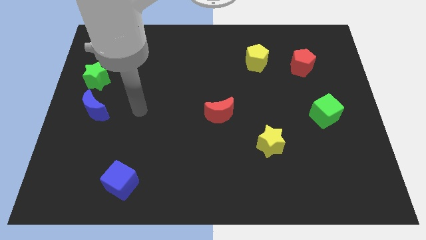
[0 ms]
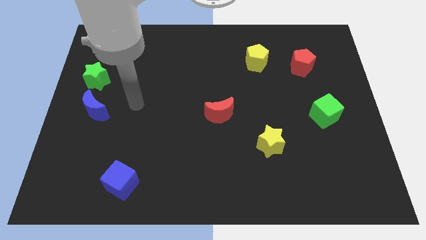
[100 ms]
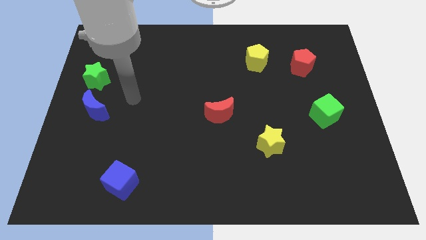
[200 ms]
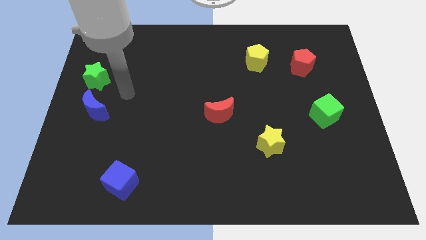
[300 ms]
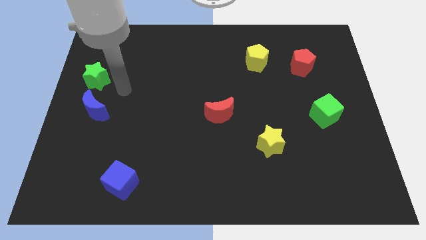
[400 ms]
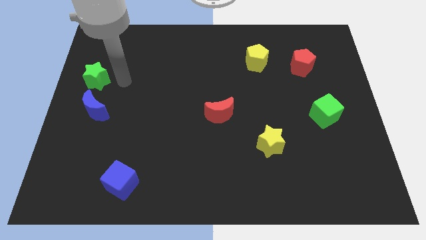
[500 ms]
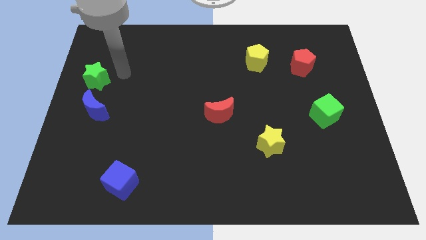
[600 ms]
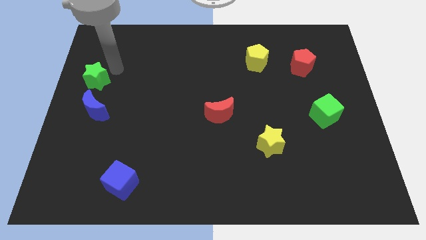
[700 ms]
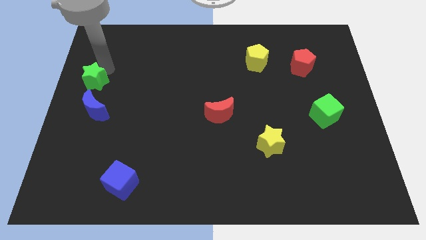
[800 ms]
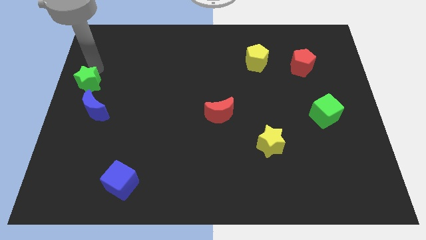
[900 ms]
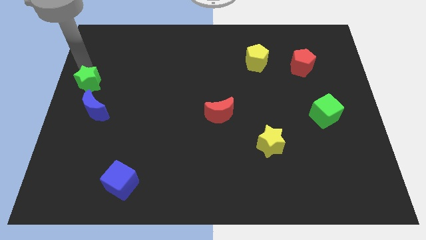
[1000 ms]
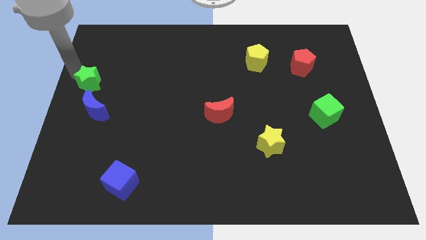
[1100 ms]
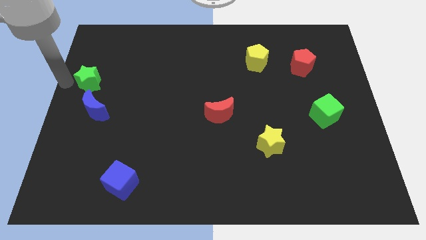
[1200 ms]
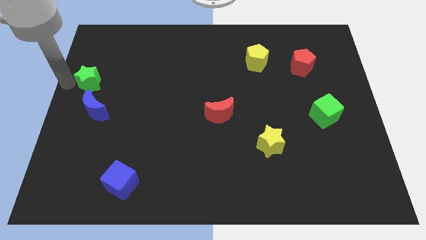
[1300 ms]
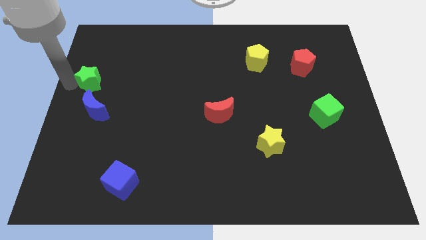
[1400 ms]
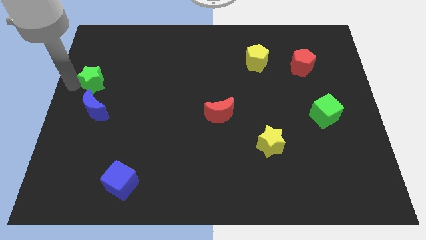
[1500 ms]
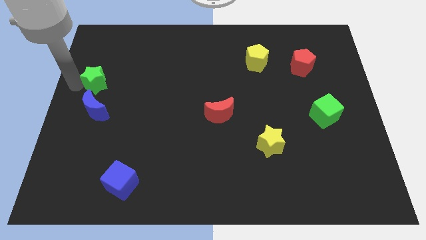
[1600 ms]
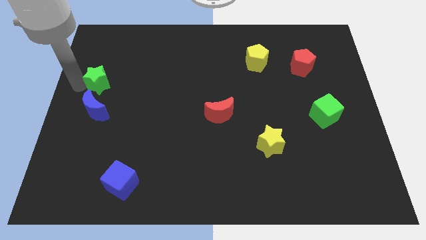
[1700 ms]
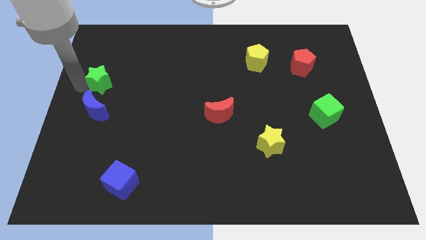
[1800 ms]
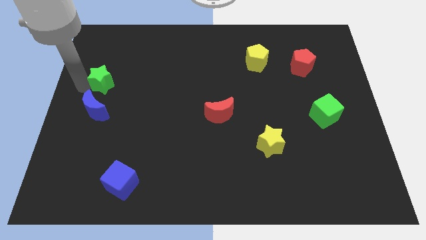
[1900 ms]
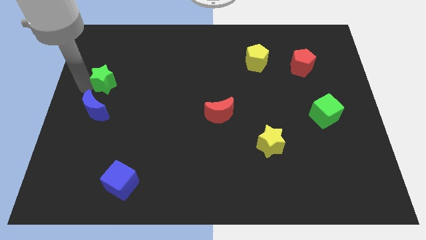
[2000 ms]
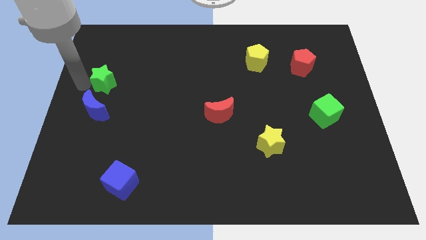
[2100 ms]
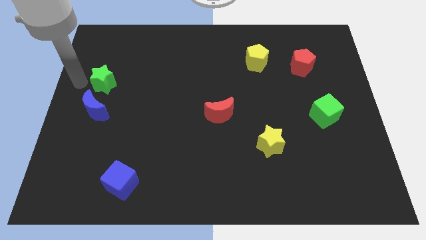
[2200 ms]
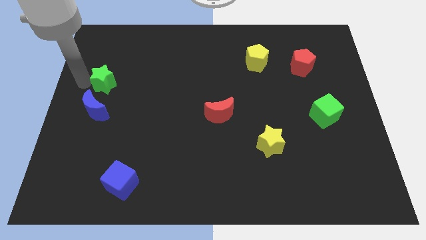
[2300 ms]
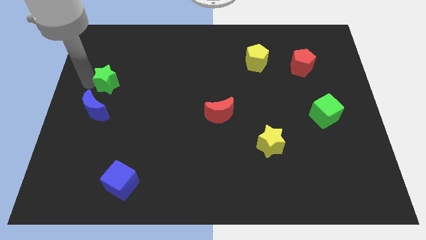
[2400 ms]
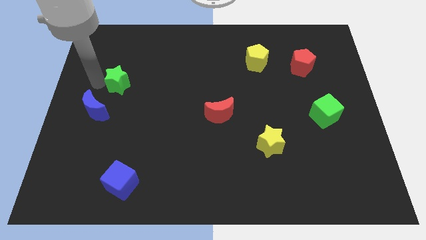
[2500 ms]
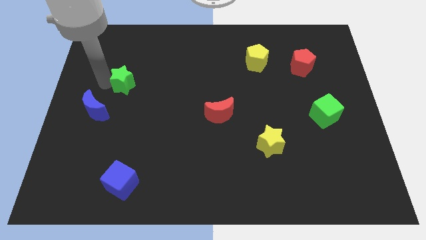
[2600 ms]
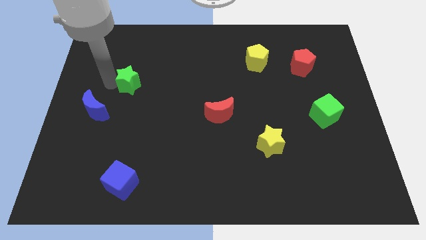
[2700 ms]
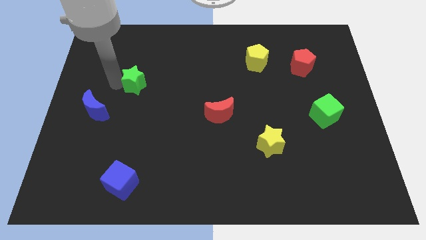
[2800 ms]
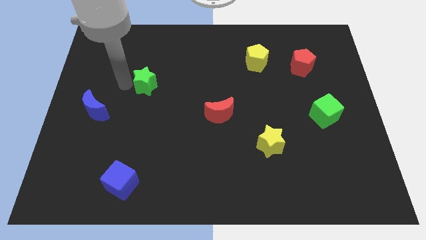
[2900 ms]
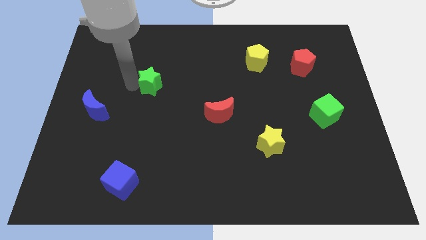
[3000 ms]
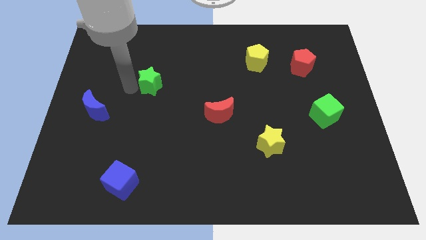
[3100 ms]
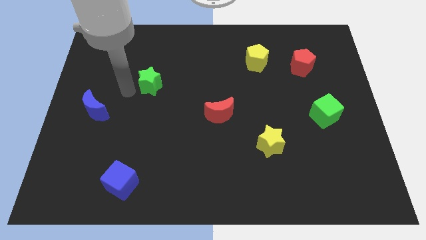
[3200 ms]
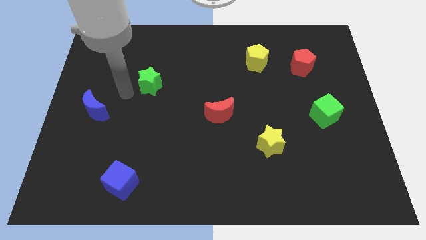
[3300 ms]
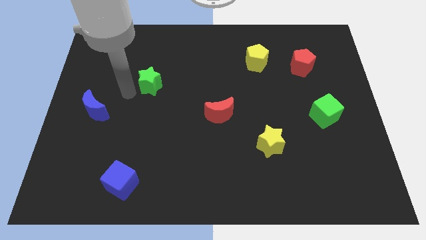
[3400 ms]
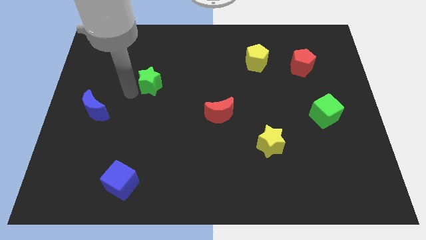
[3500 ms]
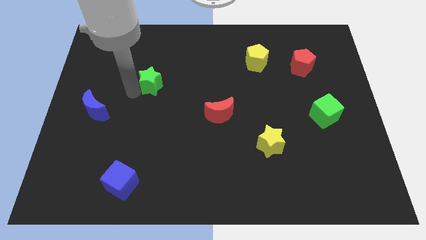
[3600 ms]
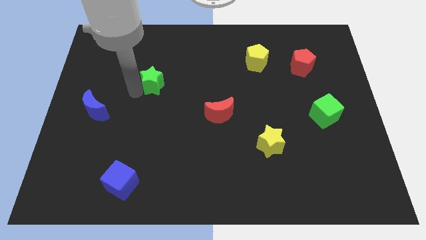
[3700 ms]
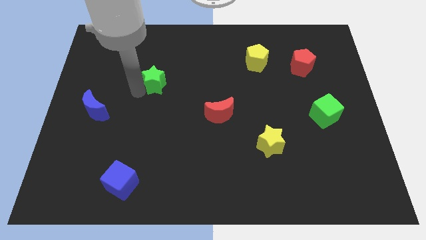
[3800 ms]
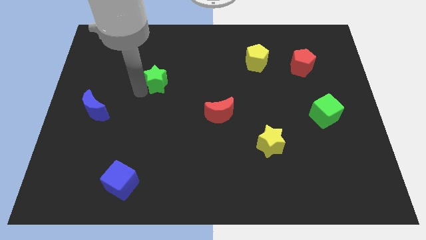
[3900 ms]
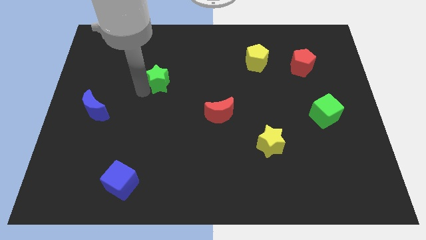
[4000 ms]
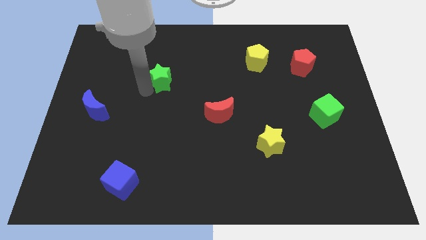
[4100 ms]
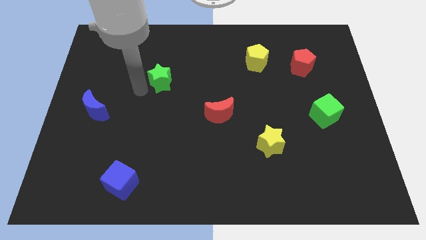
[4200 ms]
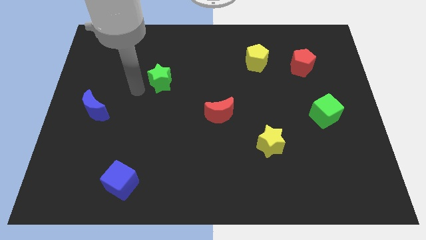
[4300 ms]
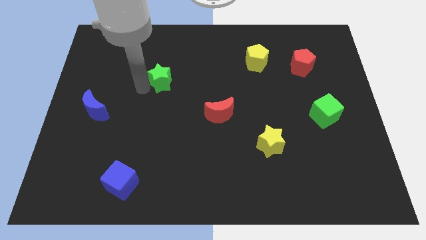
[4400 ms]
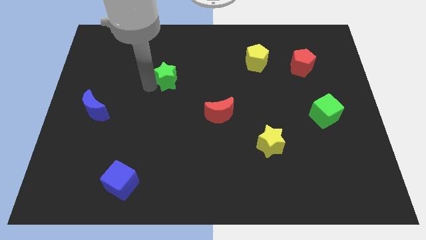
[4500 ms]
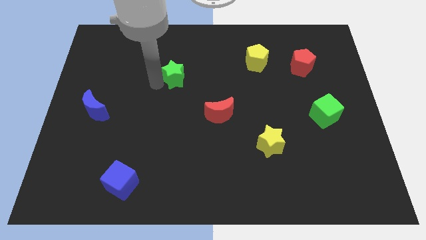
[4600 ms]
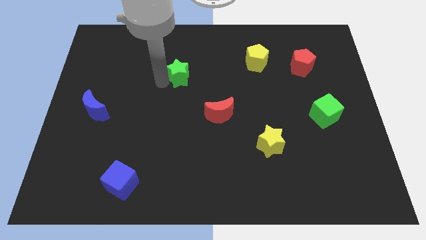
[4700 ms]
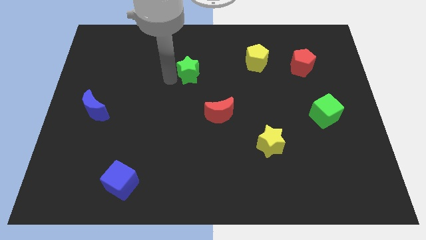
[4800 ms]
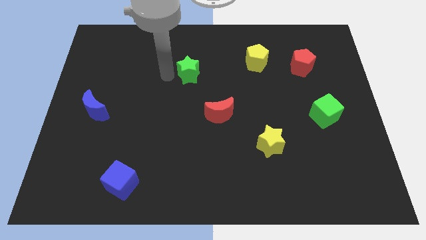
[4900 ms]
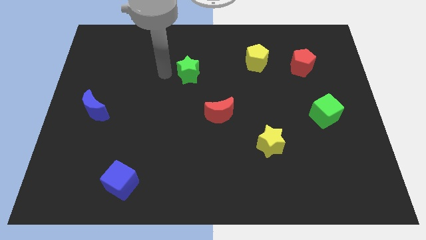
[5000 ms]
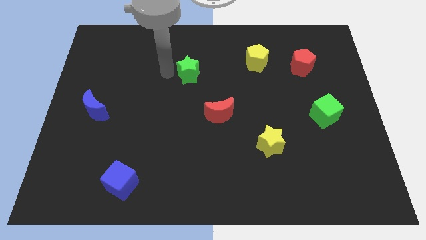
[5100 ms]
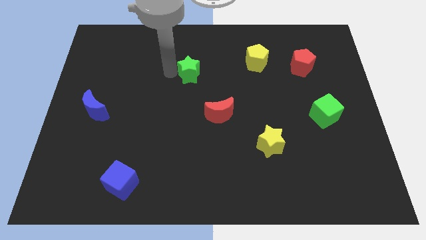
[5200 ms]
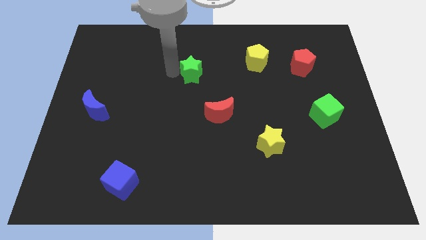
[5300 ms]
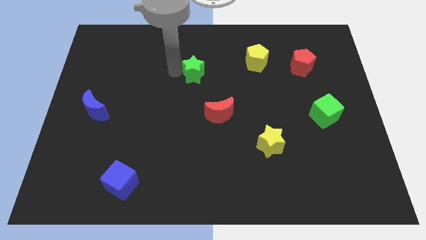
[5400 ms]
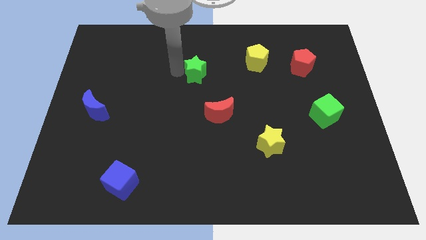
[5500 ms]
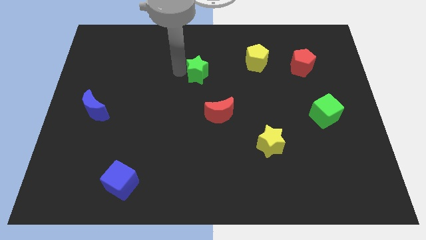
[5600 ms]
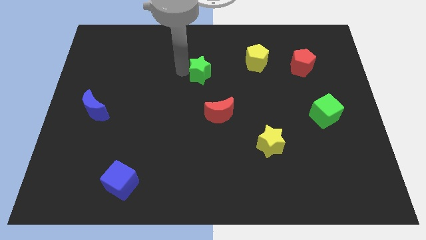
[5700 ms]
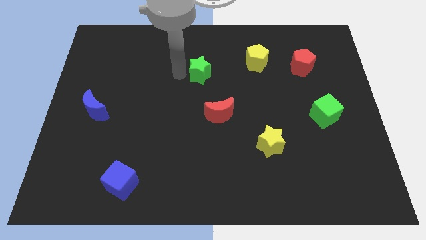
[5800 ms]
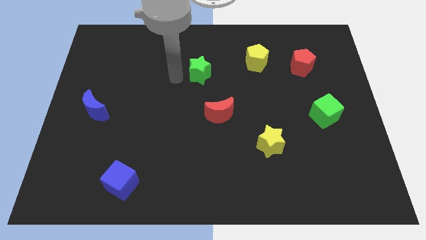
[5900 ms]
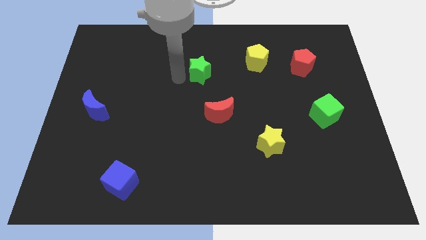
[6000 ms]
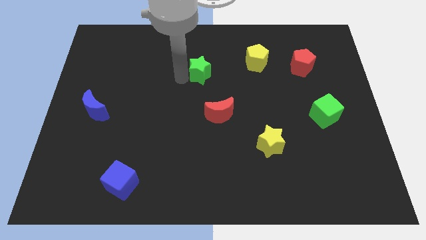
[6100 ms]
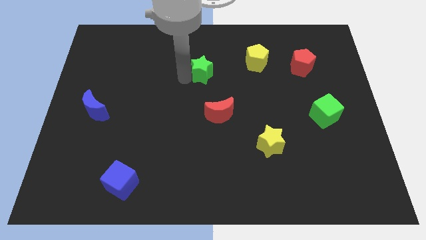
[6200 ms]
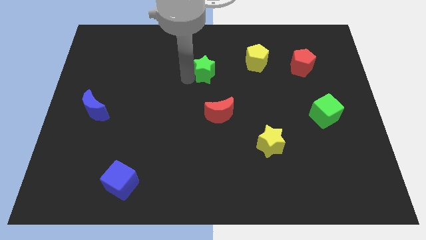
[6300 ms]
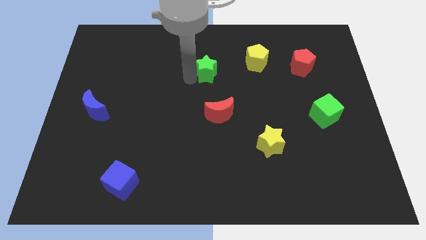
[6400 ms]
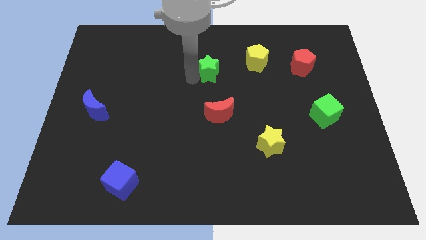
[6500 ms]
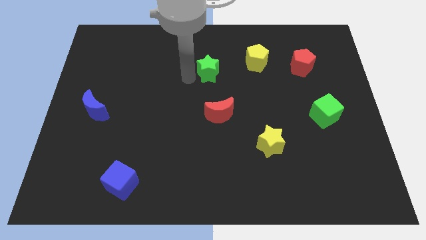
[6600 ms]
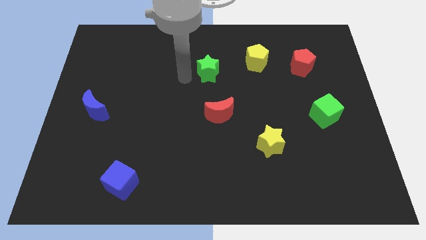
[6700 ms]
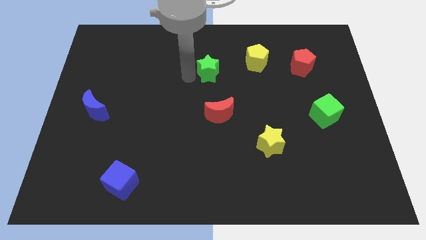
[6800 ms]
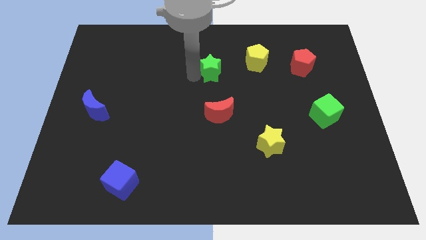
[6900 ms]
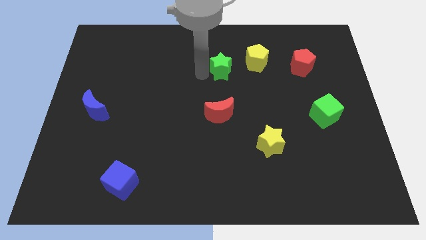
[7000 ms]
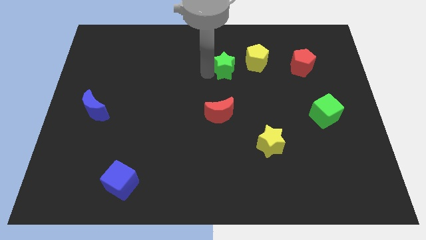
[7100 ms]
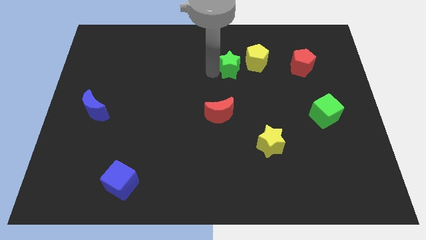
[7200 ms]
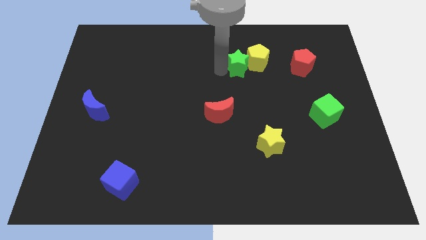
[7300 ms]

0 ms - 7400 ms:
push the green star to the left of the red pentagon
